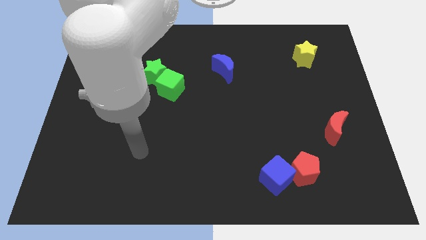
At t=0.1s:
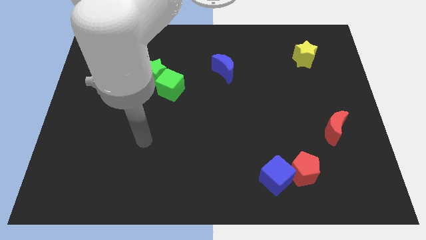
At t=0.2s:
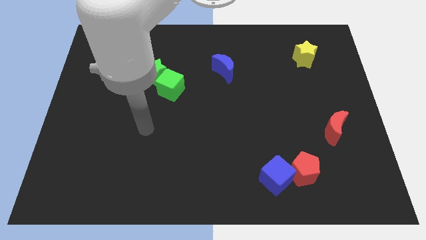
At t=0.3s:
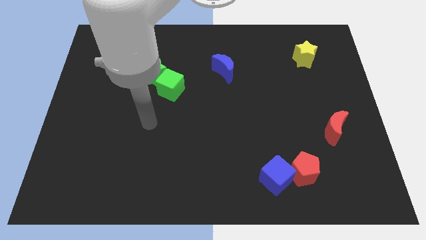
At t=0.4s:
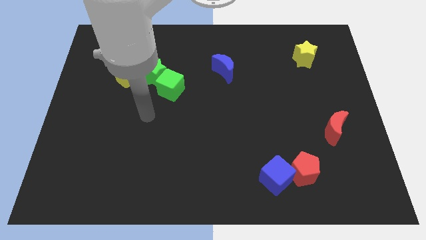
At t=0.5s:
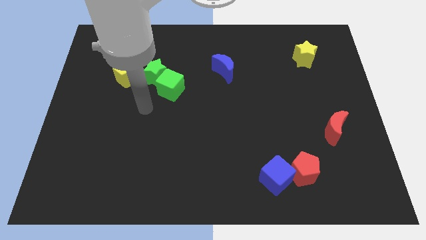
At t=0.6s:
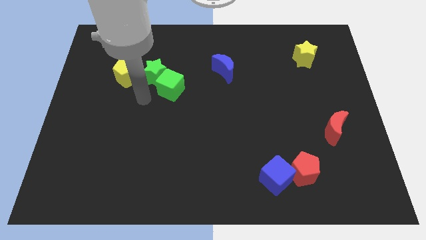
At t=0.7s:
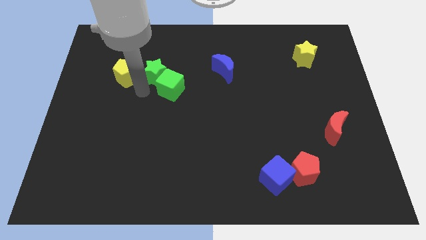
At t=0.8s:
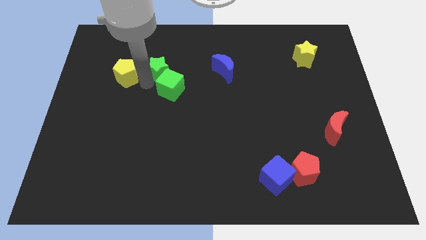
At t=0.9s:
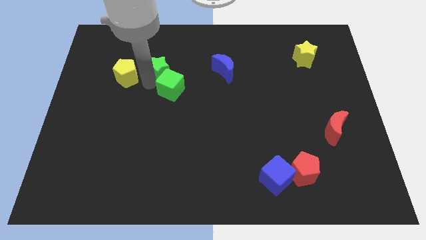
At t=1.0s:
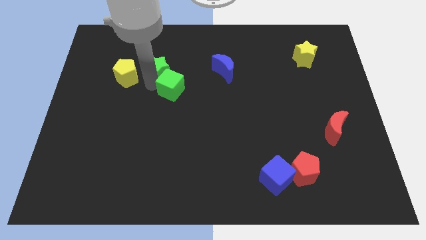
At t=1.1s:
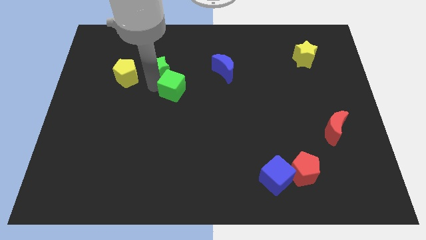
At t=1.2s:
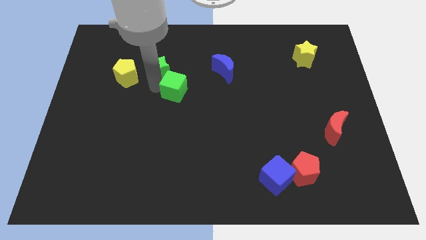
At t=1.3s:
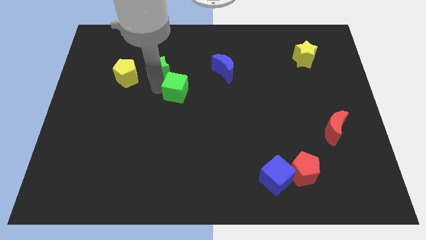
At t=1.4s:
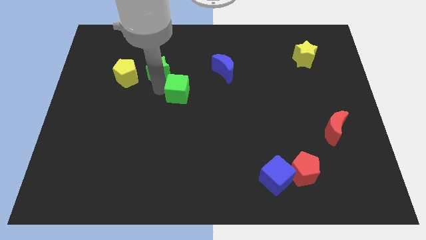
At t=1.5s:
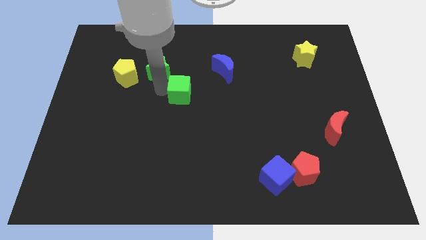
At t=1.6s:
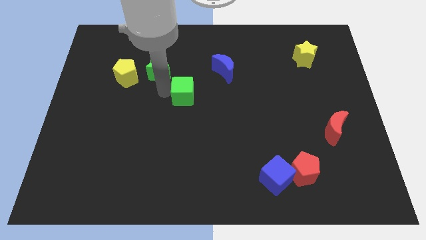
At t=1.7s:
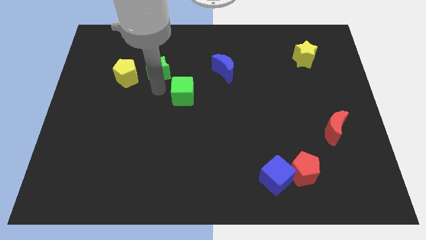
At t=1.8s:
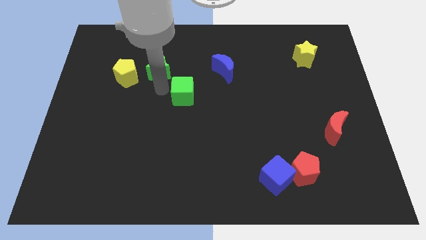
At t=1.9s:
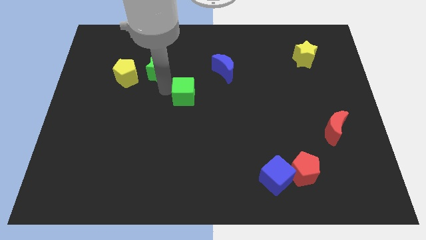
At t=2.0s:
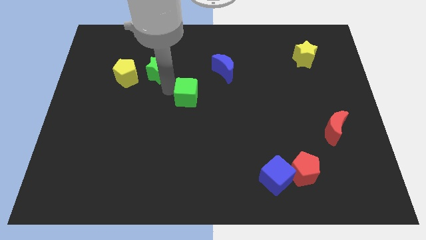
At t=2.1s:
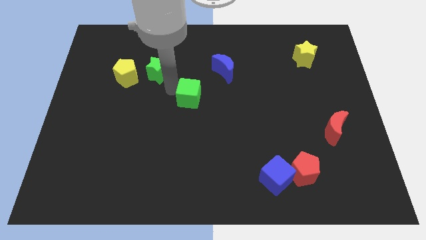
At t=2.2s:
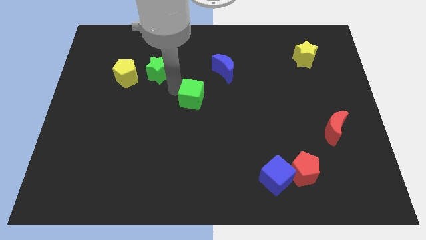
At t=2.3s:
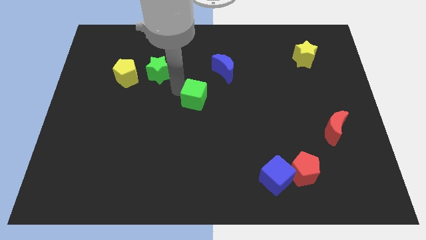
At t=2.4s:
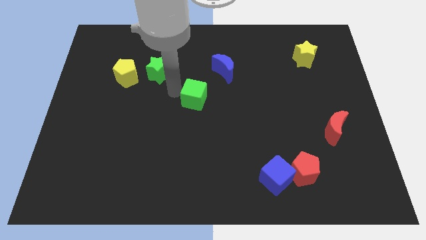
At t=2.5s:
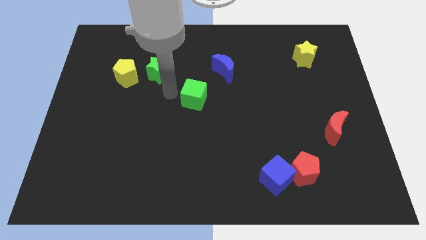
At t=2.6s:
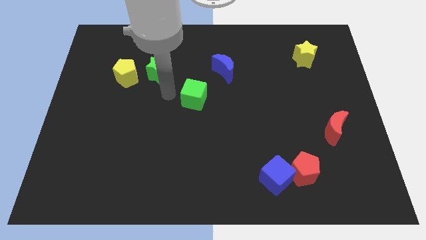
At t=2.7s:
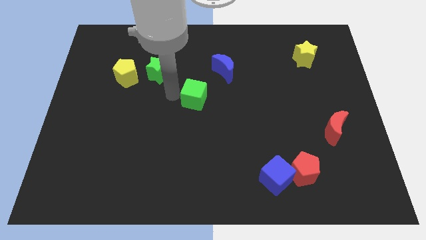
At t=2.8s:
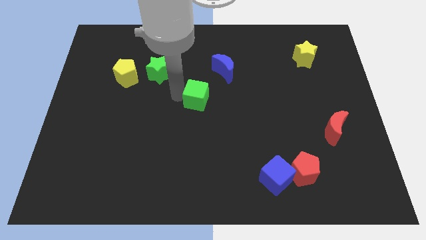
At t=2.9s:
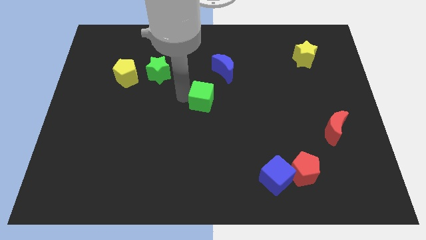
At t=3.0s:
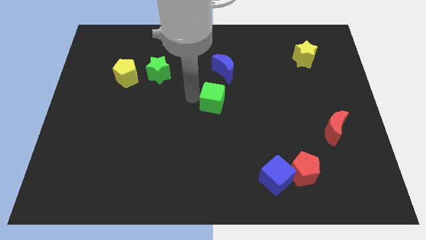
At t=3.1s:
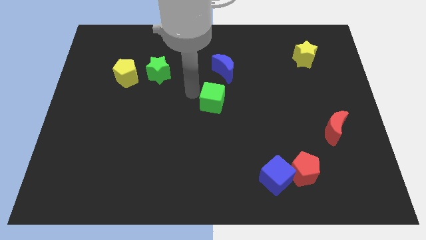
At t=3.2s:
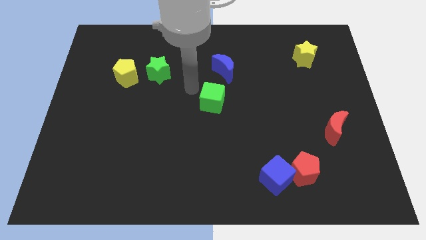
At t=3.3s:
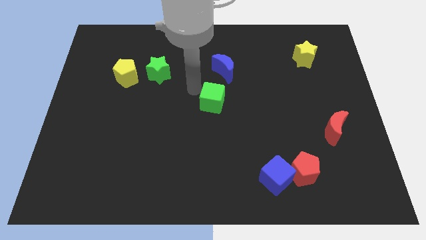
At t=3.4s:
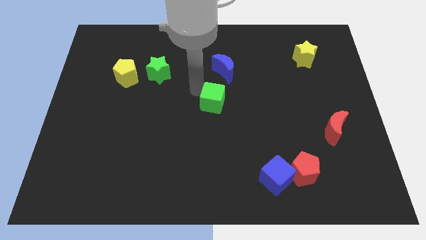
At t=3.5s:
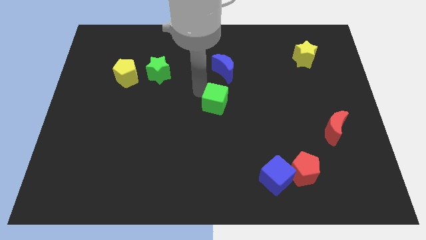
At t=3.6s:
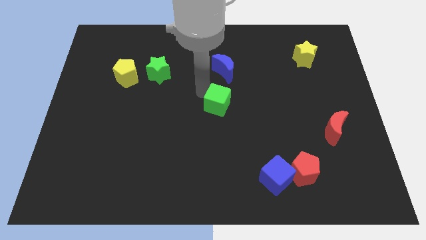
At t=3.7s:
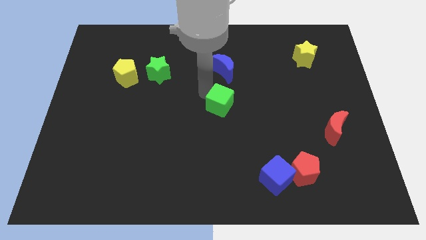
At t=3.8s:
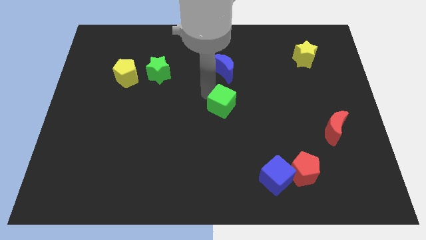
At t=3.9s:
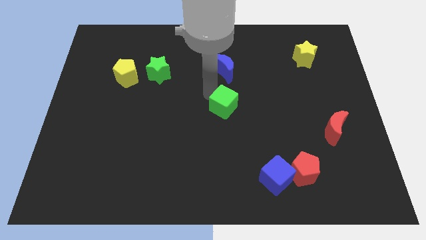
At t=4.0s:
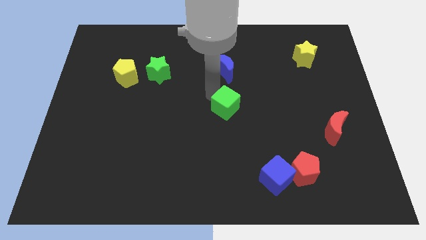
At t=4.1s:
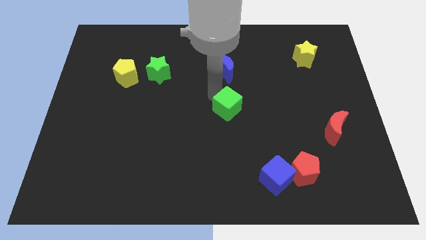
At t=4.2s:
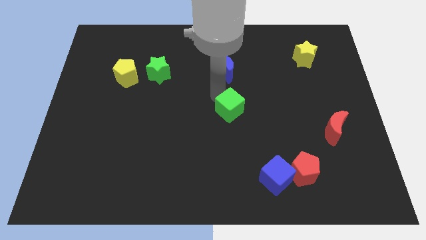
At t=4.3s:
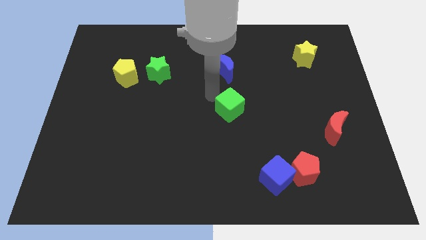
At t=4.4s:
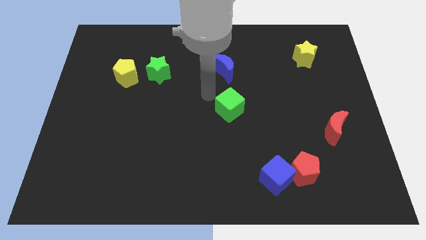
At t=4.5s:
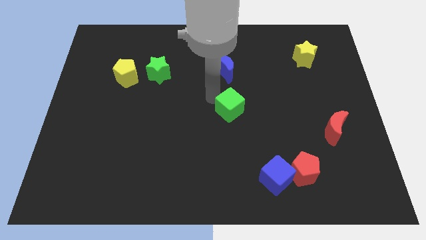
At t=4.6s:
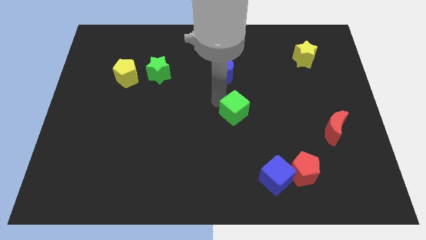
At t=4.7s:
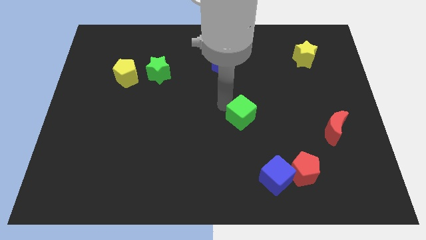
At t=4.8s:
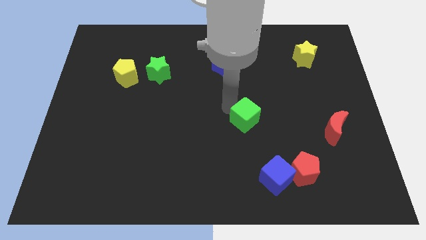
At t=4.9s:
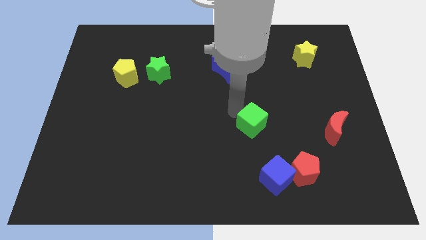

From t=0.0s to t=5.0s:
move the green cube to the top of the blue cube

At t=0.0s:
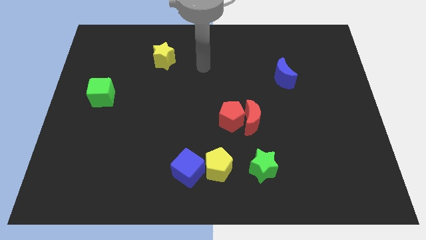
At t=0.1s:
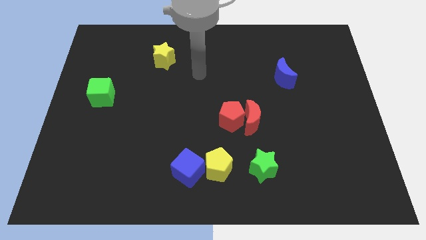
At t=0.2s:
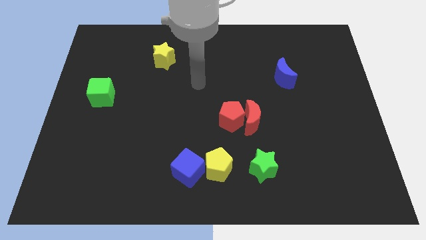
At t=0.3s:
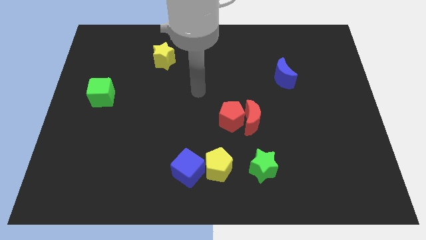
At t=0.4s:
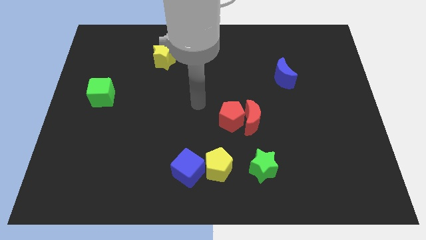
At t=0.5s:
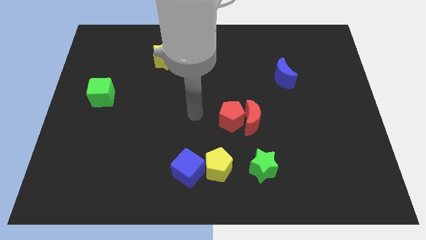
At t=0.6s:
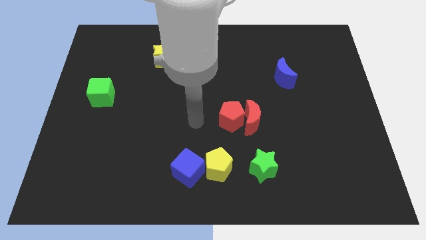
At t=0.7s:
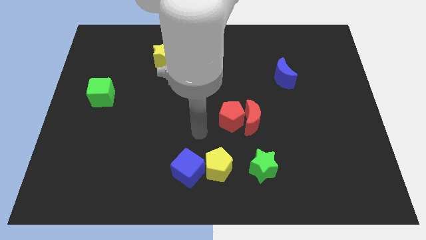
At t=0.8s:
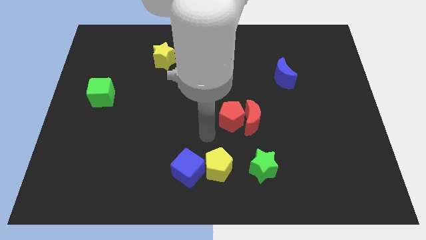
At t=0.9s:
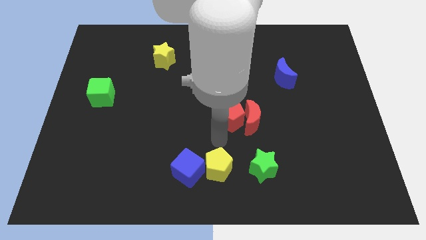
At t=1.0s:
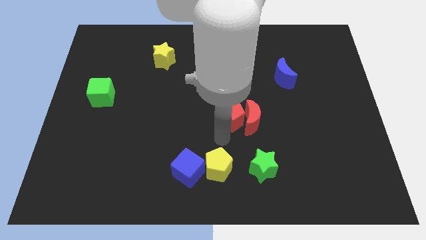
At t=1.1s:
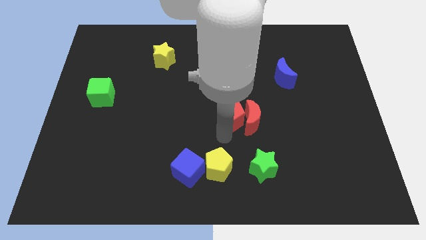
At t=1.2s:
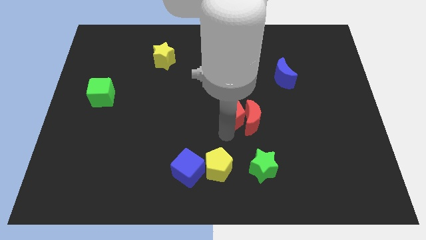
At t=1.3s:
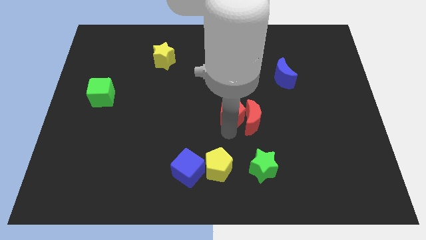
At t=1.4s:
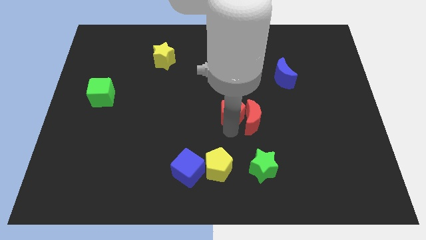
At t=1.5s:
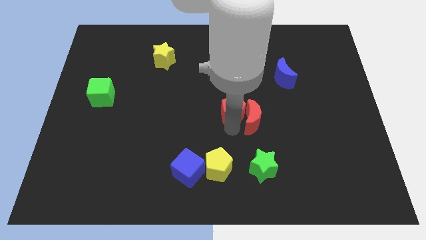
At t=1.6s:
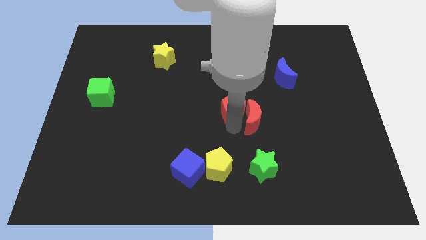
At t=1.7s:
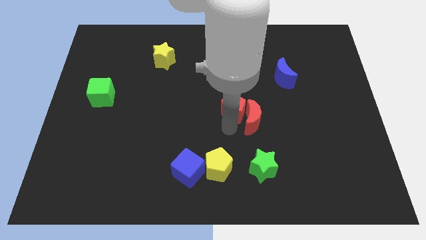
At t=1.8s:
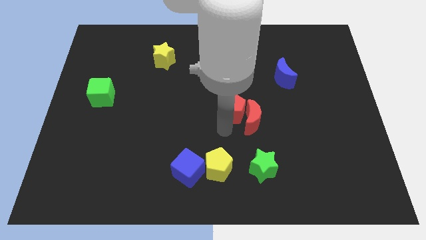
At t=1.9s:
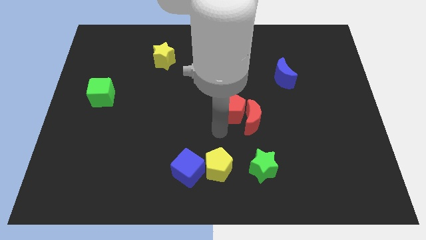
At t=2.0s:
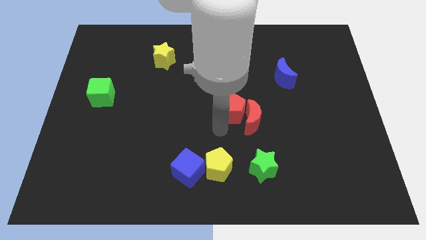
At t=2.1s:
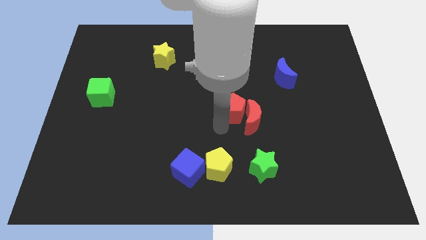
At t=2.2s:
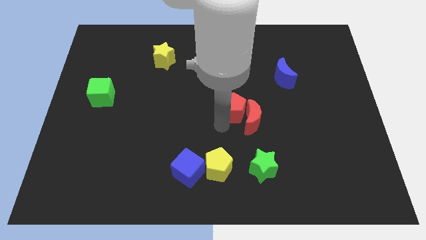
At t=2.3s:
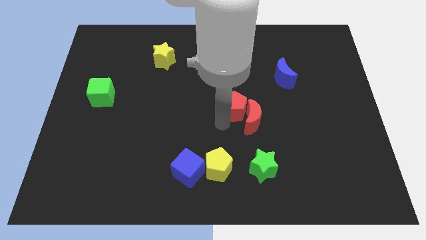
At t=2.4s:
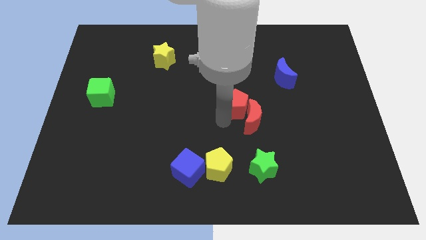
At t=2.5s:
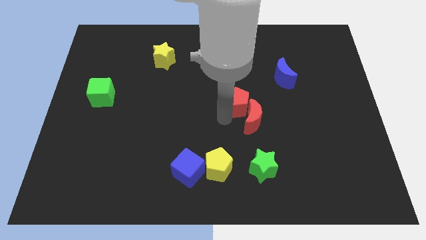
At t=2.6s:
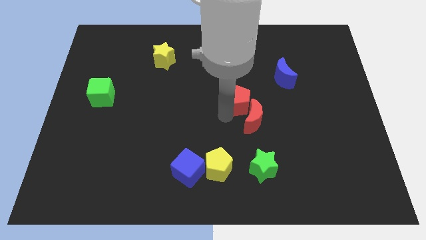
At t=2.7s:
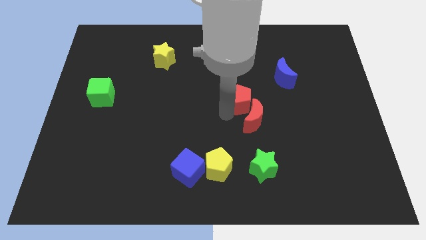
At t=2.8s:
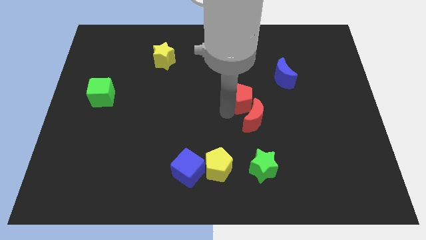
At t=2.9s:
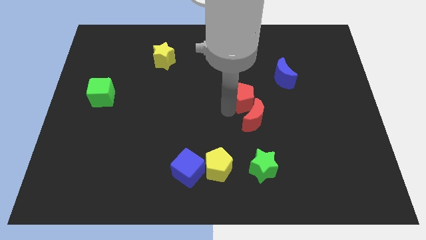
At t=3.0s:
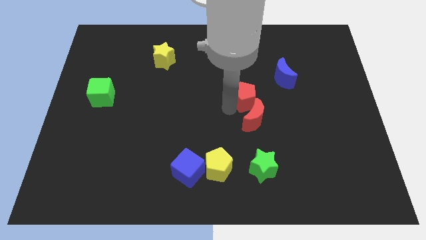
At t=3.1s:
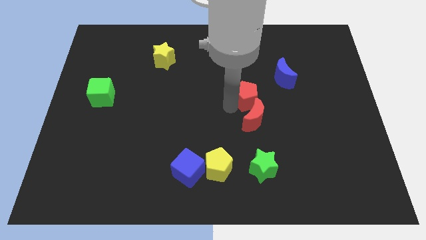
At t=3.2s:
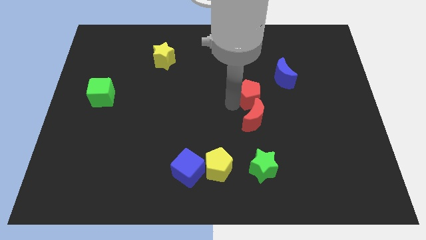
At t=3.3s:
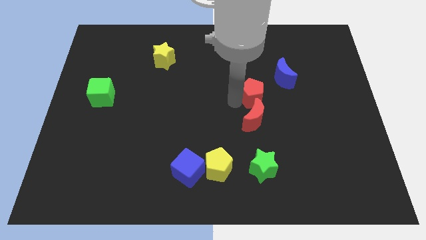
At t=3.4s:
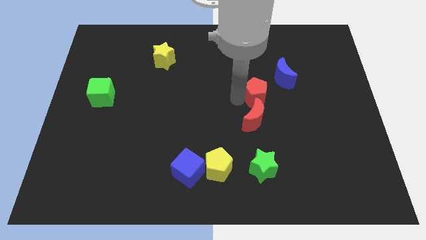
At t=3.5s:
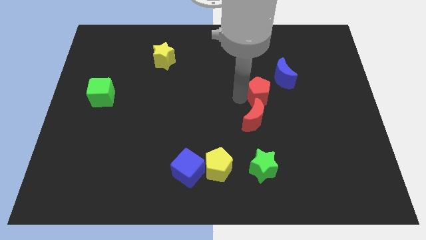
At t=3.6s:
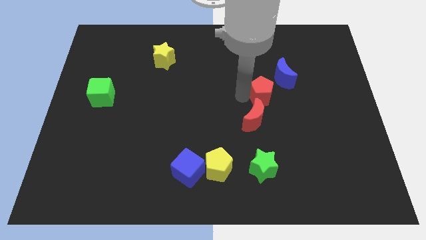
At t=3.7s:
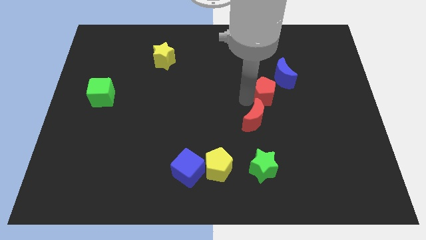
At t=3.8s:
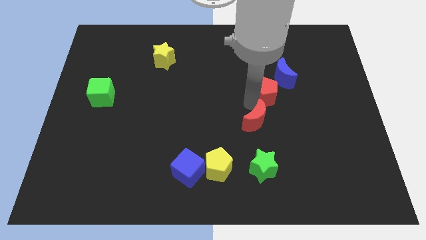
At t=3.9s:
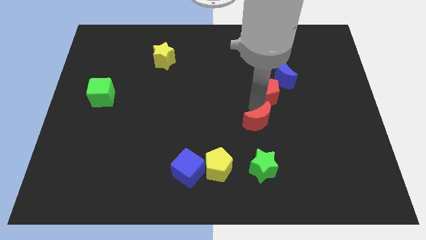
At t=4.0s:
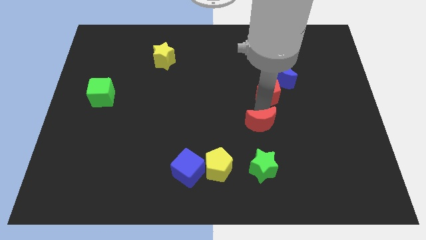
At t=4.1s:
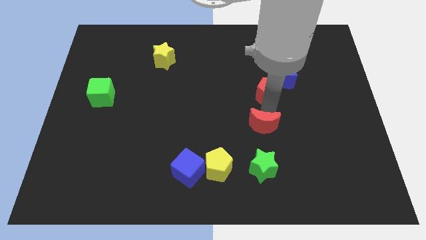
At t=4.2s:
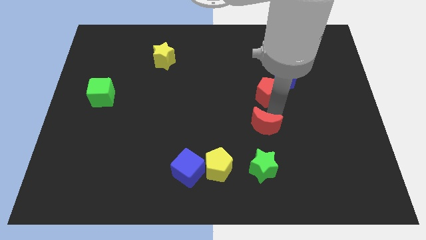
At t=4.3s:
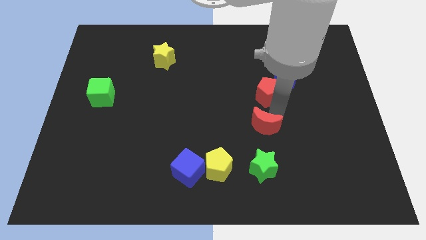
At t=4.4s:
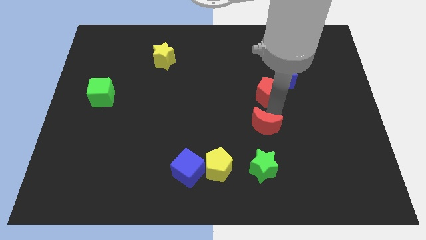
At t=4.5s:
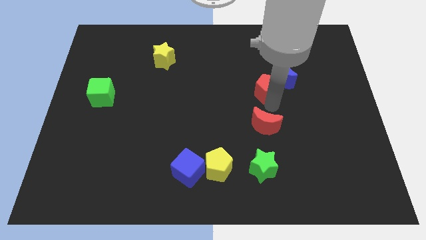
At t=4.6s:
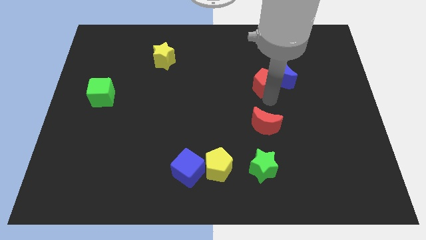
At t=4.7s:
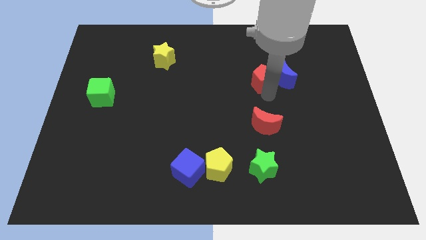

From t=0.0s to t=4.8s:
move the red pentagon to the top left side of the blue moon
